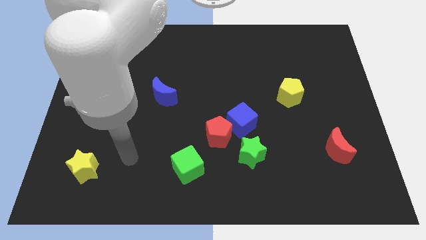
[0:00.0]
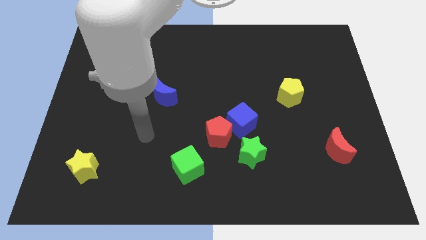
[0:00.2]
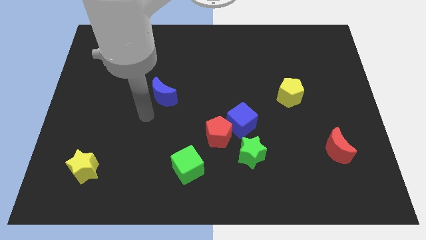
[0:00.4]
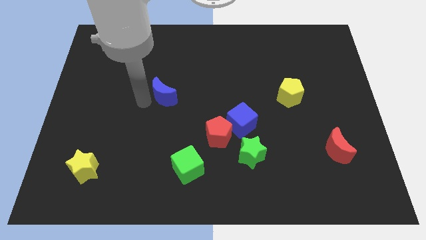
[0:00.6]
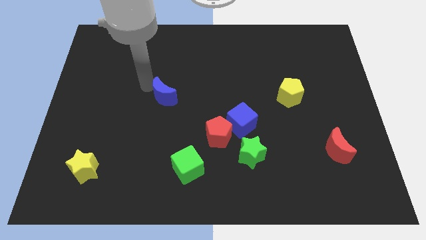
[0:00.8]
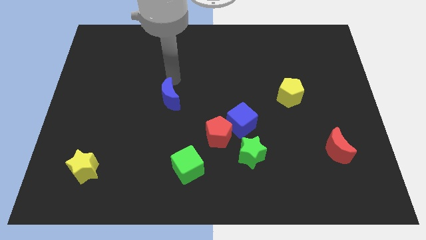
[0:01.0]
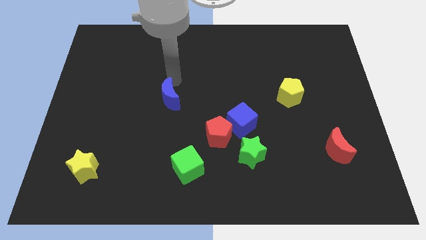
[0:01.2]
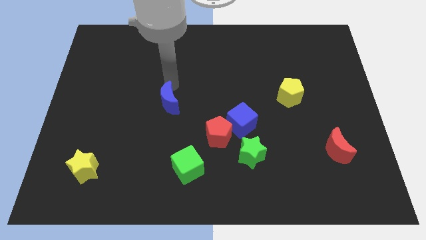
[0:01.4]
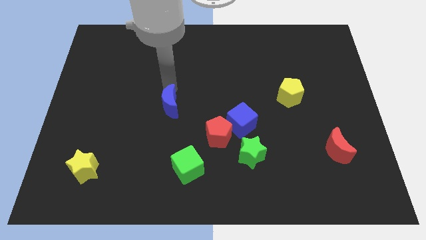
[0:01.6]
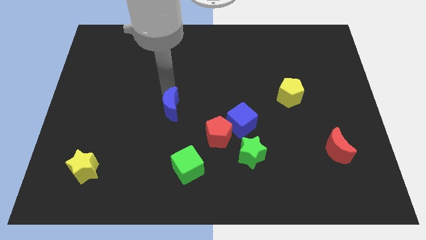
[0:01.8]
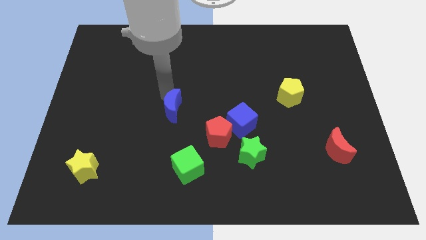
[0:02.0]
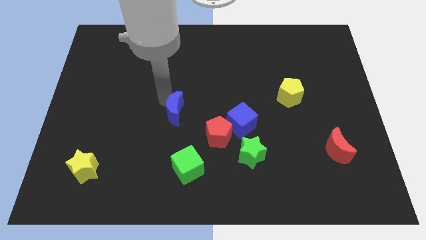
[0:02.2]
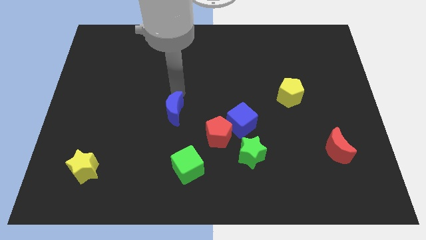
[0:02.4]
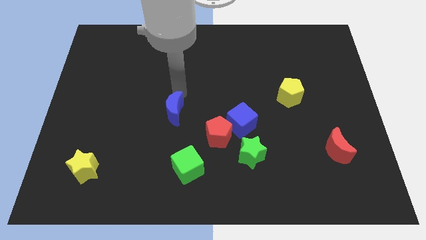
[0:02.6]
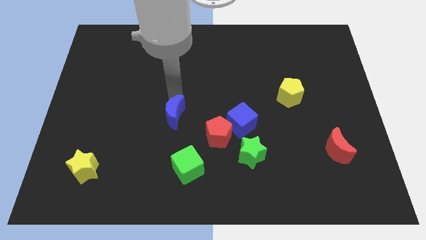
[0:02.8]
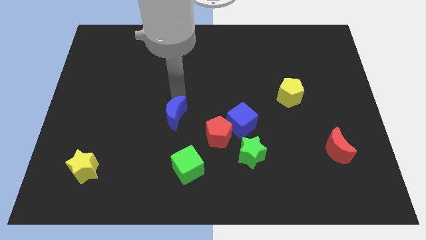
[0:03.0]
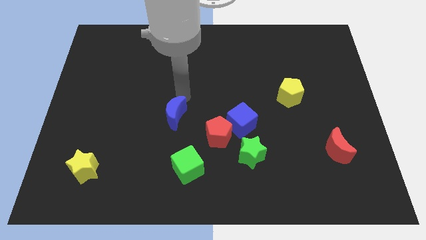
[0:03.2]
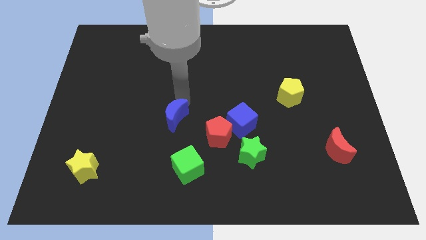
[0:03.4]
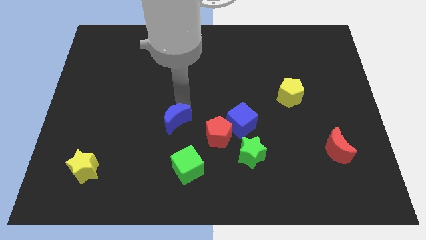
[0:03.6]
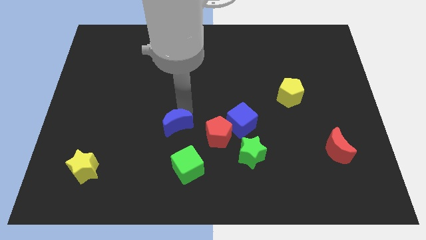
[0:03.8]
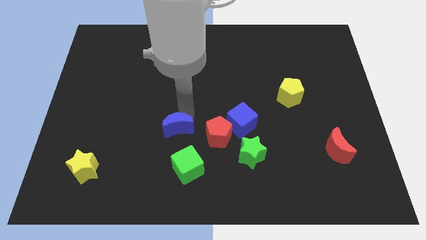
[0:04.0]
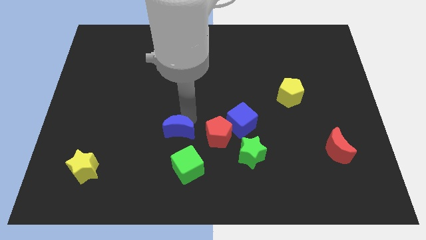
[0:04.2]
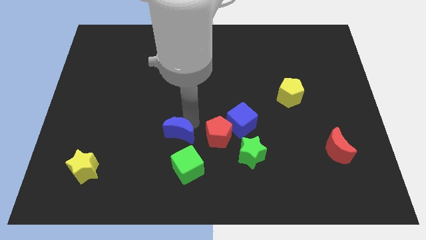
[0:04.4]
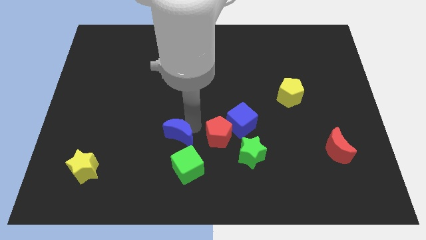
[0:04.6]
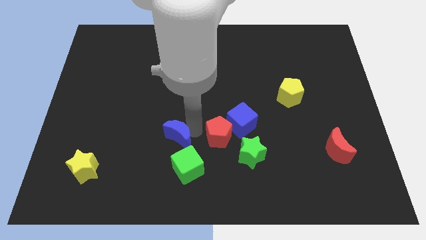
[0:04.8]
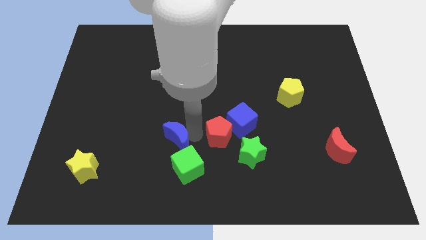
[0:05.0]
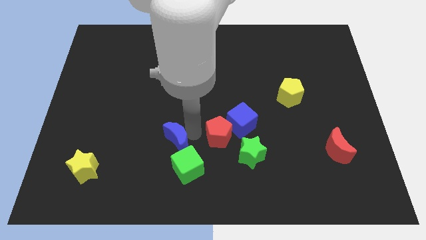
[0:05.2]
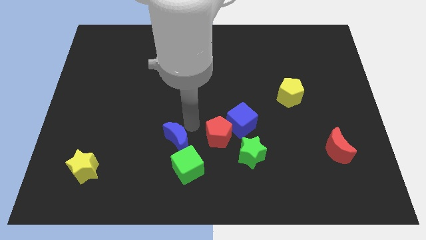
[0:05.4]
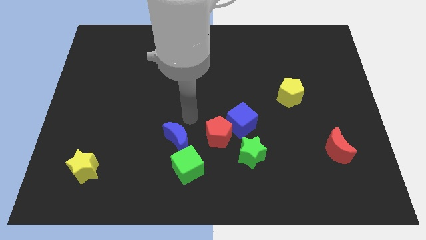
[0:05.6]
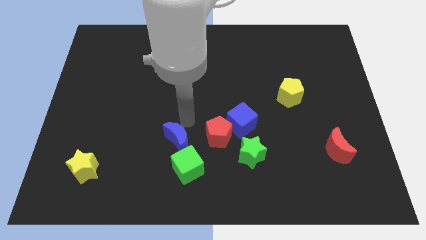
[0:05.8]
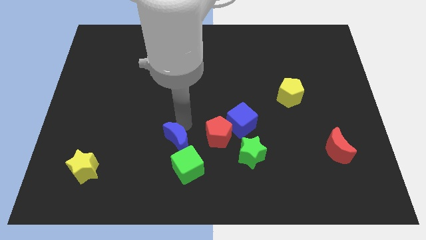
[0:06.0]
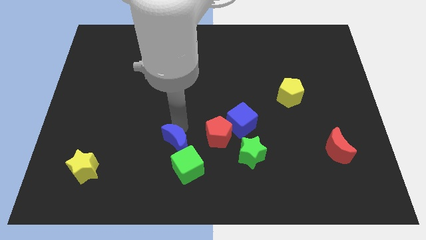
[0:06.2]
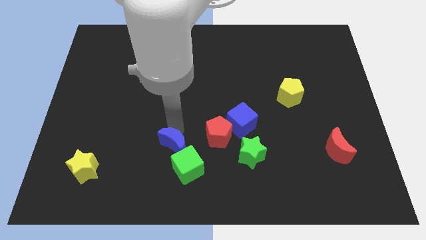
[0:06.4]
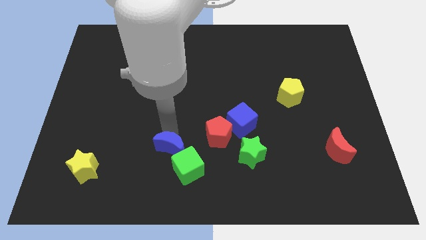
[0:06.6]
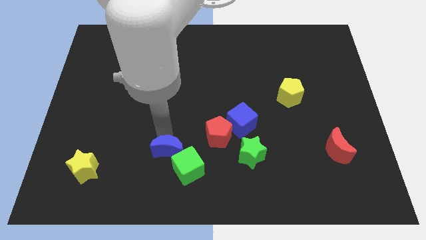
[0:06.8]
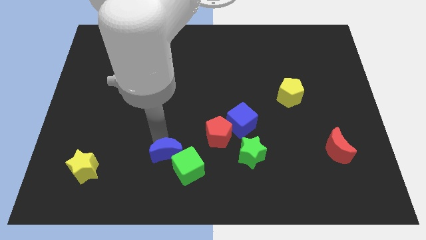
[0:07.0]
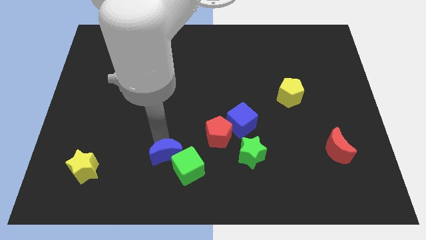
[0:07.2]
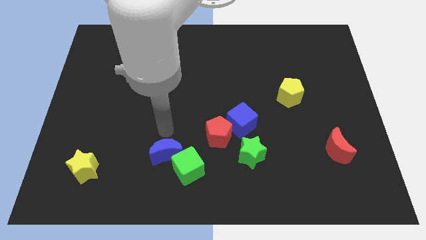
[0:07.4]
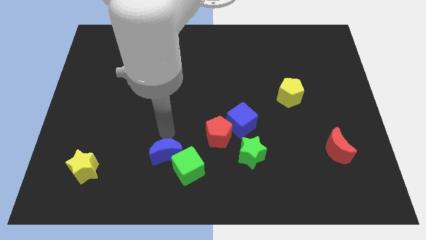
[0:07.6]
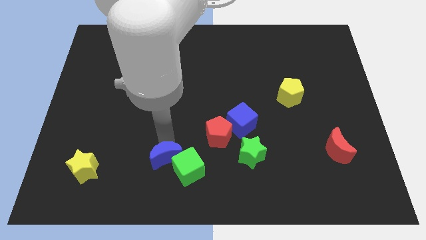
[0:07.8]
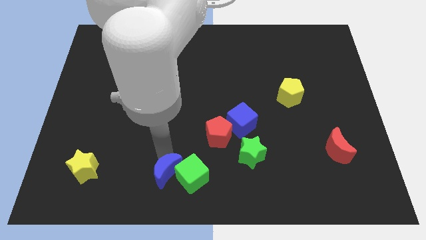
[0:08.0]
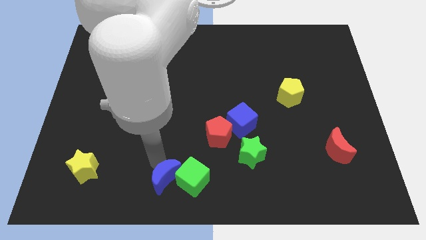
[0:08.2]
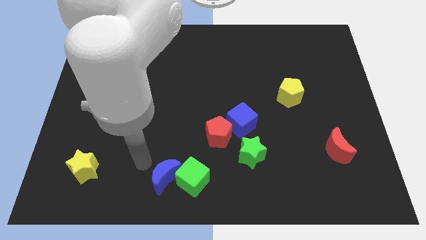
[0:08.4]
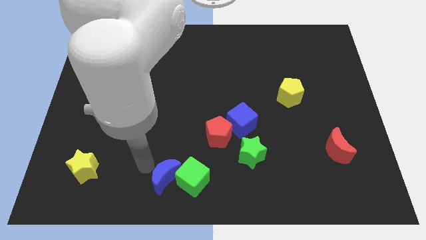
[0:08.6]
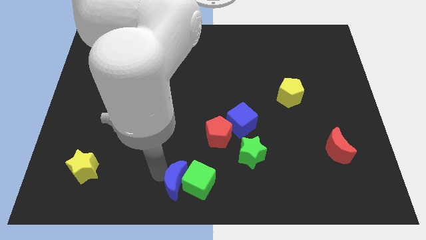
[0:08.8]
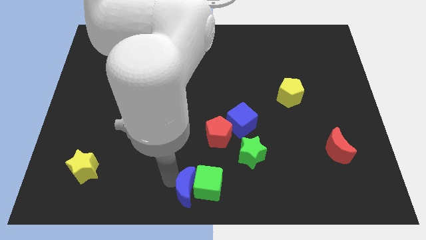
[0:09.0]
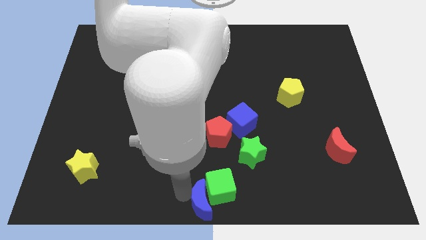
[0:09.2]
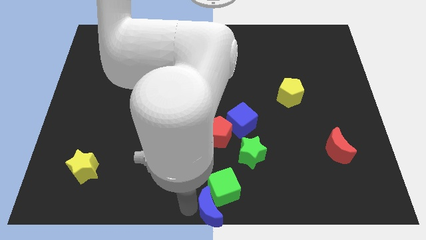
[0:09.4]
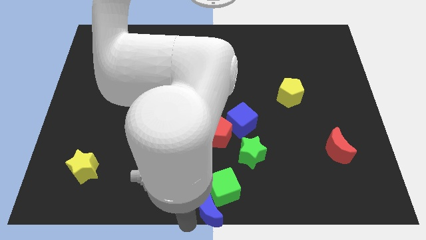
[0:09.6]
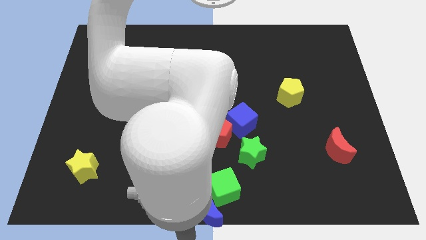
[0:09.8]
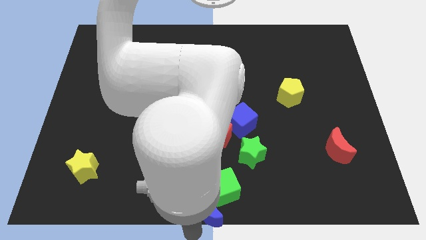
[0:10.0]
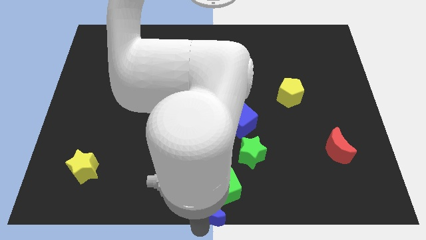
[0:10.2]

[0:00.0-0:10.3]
push the blue moon diagonally downwards and to the right

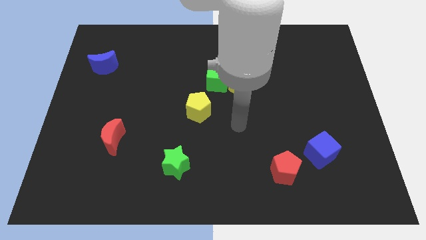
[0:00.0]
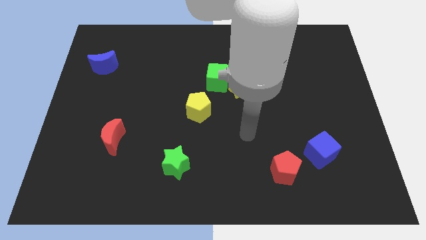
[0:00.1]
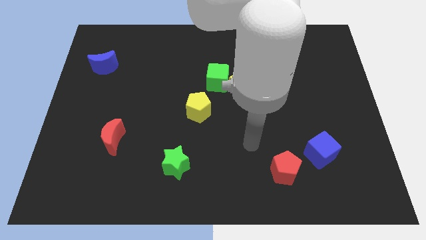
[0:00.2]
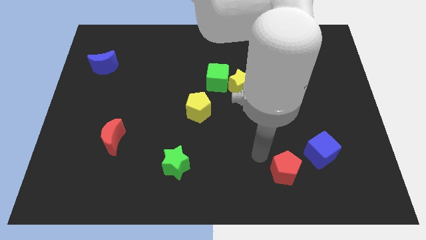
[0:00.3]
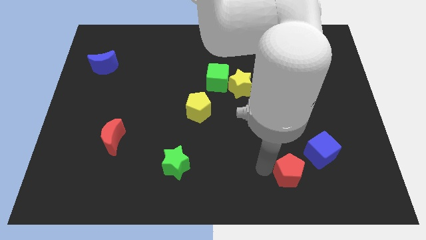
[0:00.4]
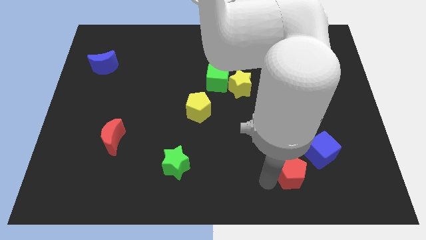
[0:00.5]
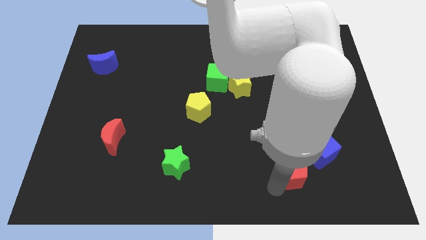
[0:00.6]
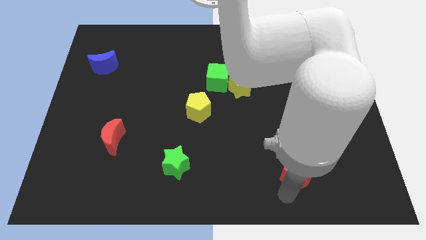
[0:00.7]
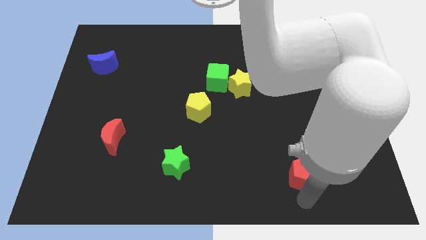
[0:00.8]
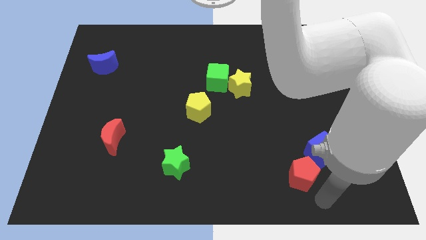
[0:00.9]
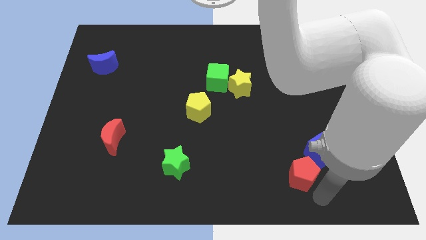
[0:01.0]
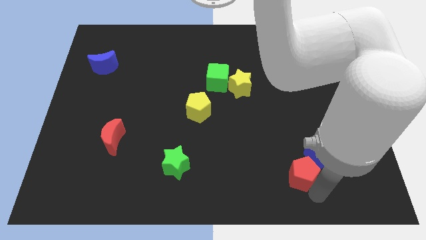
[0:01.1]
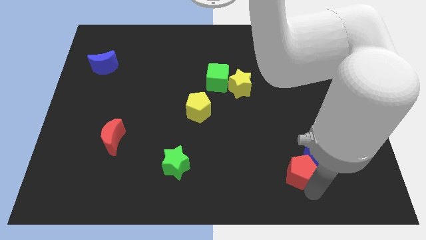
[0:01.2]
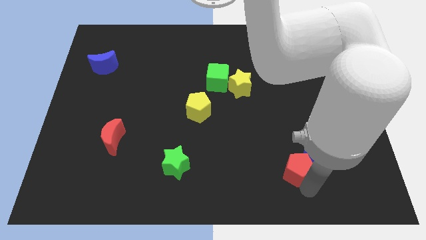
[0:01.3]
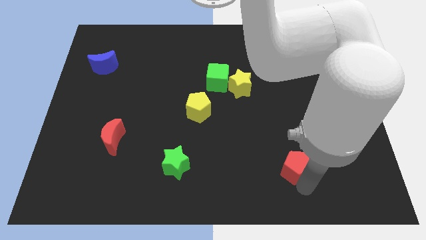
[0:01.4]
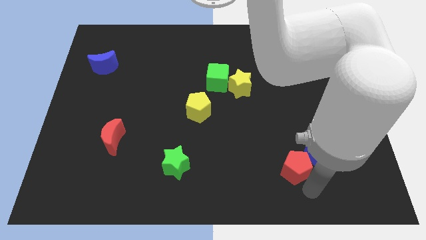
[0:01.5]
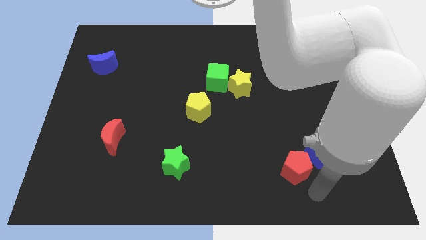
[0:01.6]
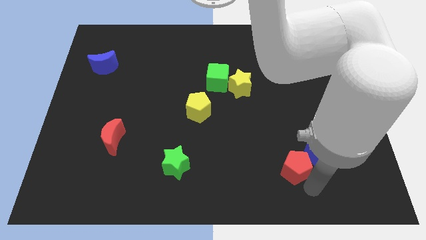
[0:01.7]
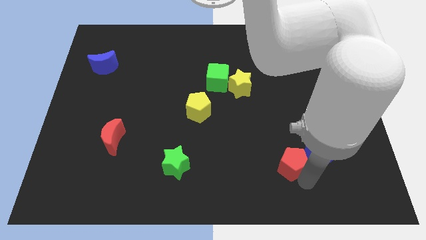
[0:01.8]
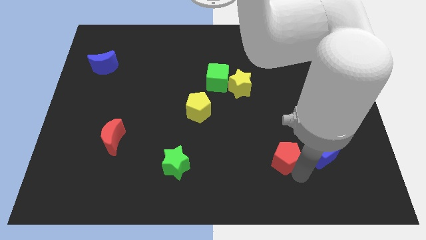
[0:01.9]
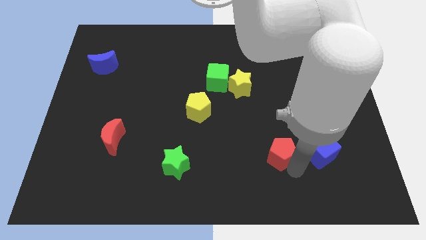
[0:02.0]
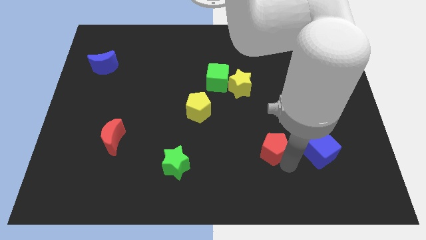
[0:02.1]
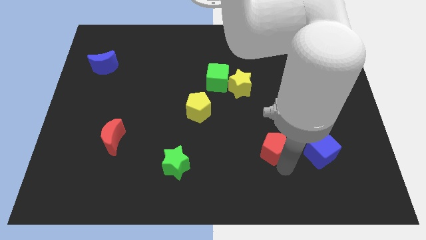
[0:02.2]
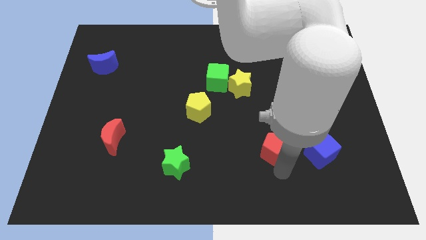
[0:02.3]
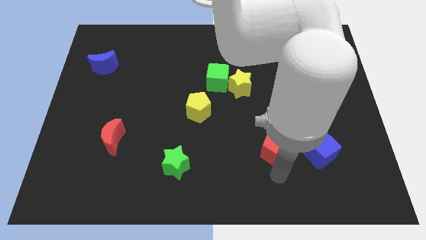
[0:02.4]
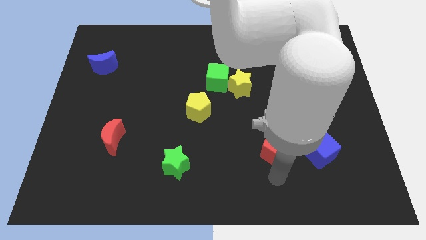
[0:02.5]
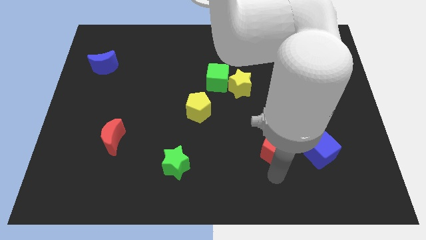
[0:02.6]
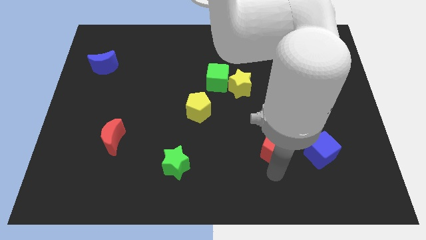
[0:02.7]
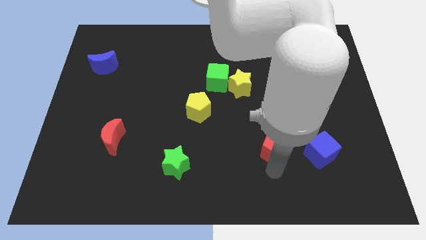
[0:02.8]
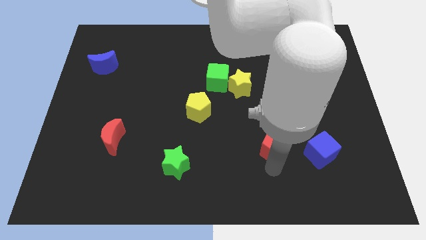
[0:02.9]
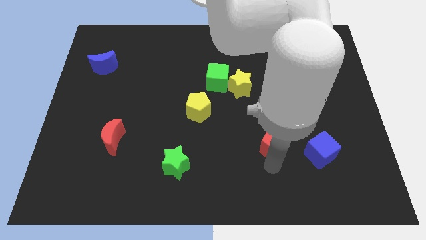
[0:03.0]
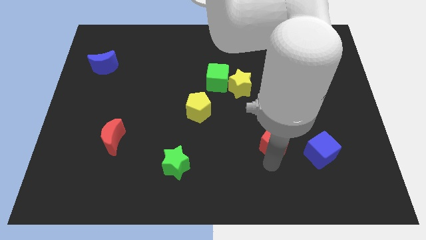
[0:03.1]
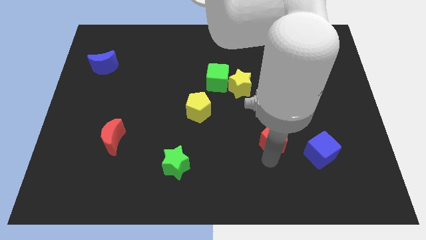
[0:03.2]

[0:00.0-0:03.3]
slightly push the red pentagon upwards
